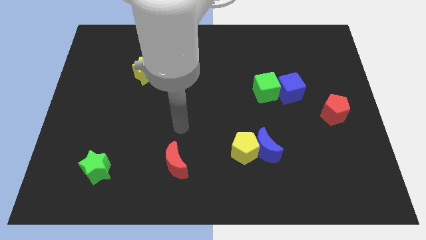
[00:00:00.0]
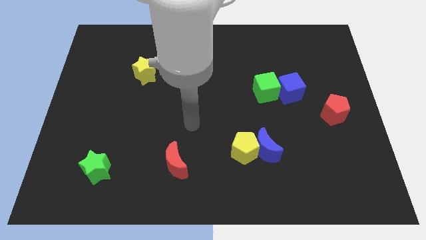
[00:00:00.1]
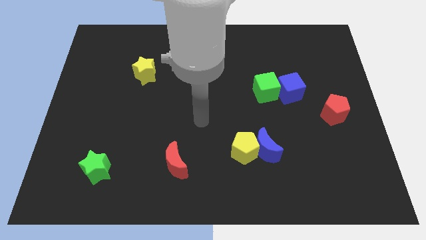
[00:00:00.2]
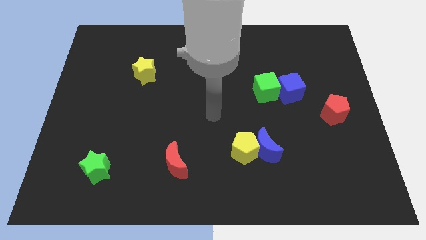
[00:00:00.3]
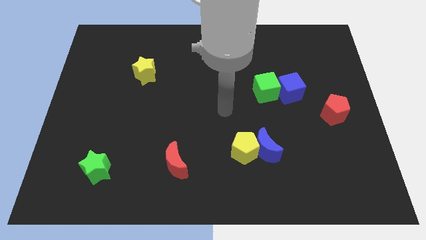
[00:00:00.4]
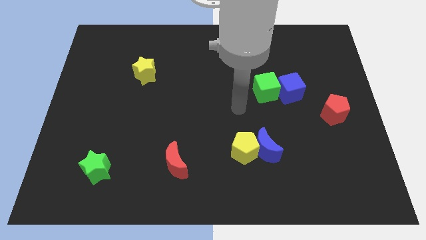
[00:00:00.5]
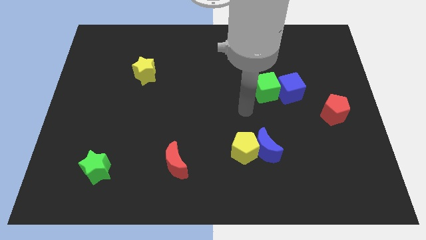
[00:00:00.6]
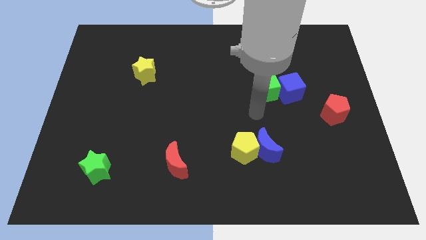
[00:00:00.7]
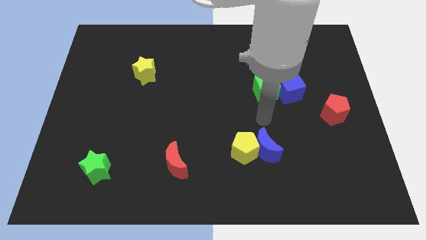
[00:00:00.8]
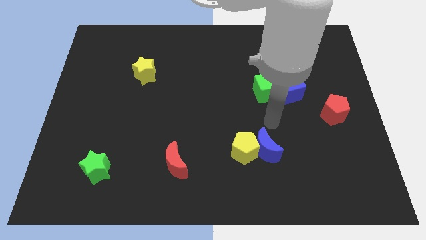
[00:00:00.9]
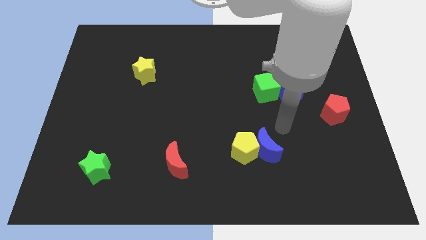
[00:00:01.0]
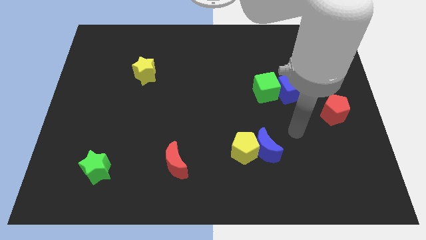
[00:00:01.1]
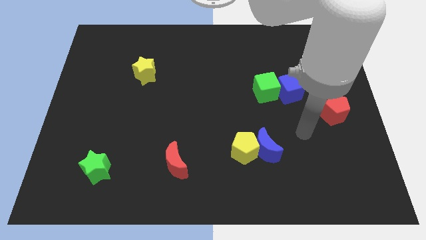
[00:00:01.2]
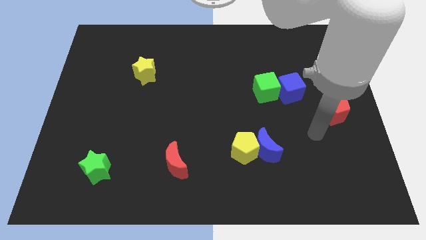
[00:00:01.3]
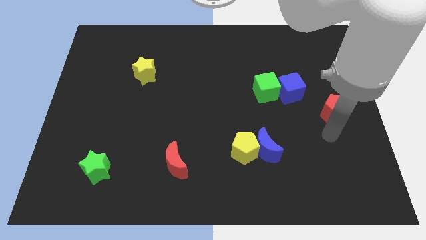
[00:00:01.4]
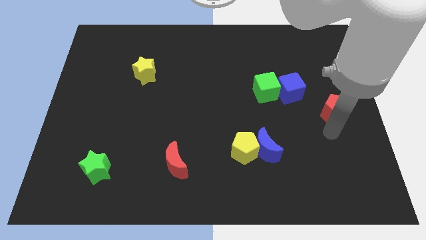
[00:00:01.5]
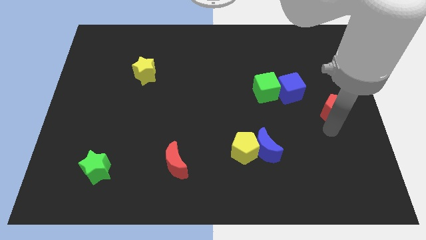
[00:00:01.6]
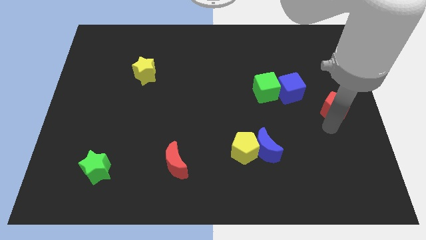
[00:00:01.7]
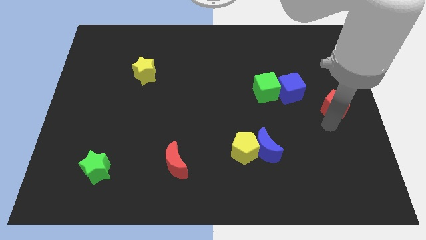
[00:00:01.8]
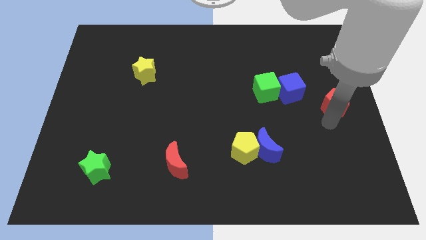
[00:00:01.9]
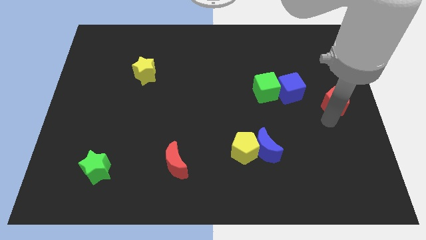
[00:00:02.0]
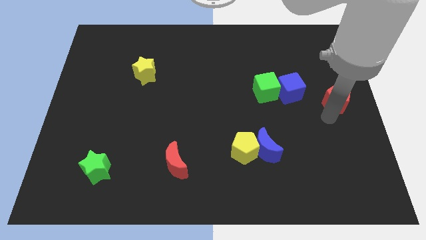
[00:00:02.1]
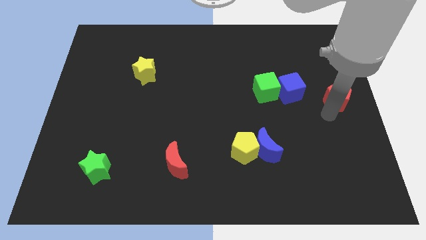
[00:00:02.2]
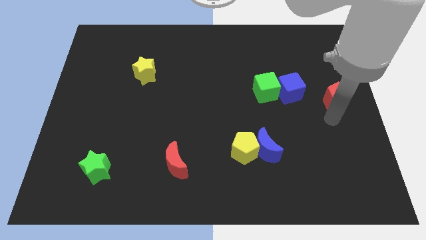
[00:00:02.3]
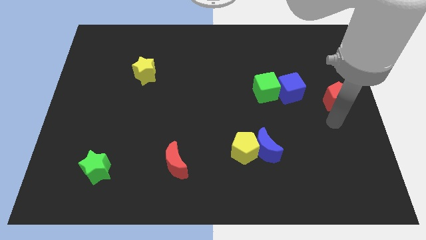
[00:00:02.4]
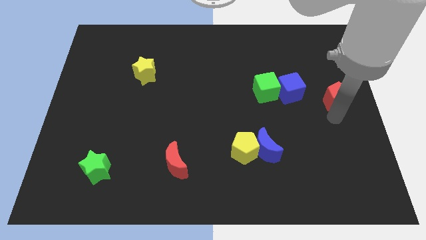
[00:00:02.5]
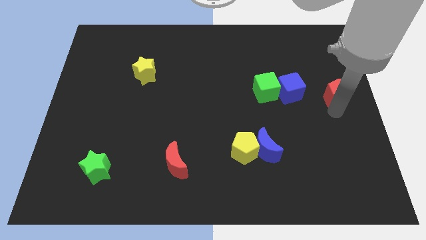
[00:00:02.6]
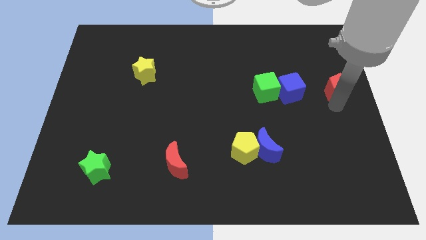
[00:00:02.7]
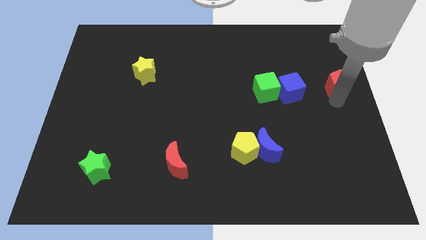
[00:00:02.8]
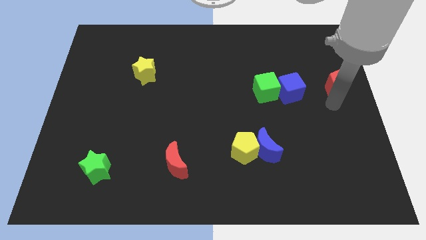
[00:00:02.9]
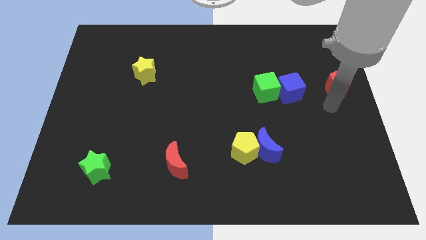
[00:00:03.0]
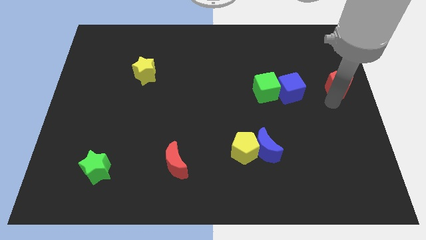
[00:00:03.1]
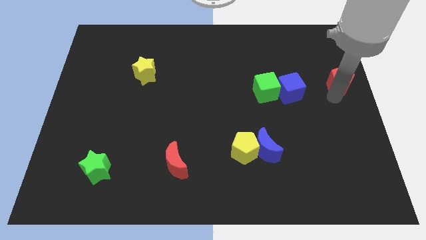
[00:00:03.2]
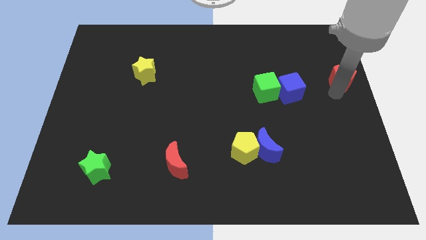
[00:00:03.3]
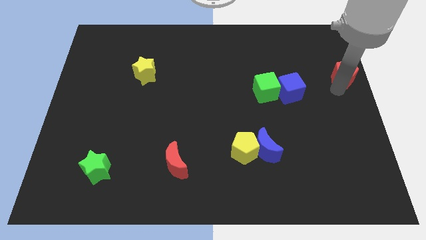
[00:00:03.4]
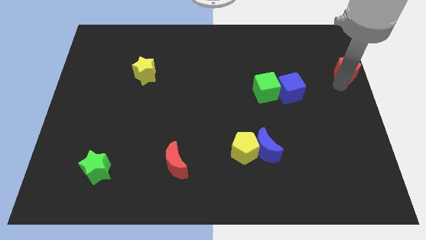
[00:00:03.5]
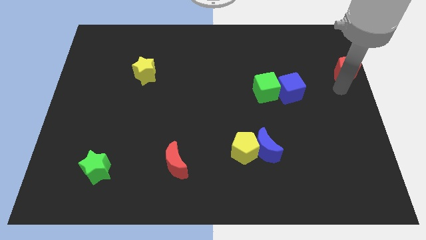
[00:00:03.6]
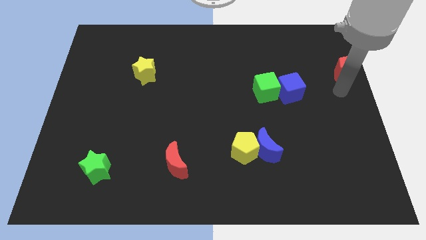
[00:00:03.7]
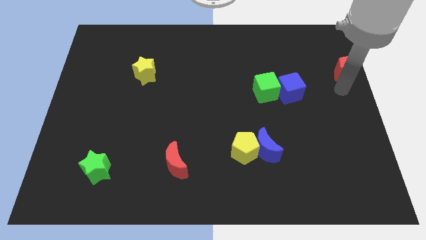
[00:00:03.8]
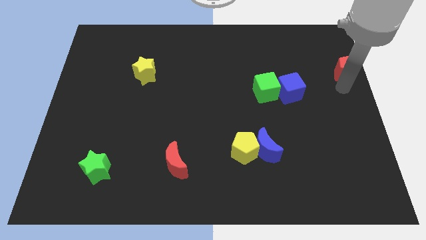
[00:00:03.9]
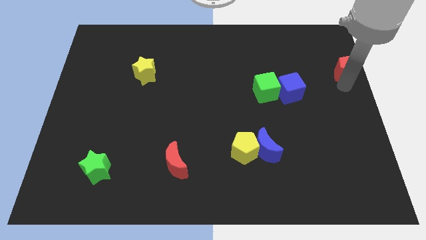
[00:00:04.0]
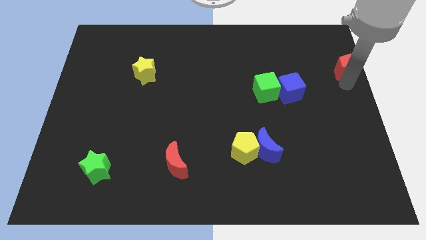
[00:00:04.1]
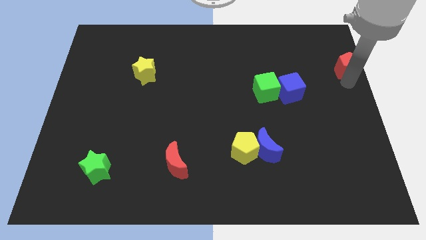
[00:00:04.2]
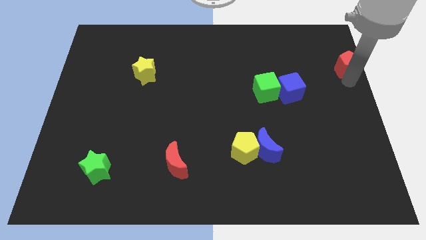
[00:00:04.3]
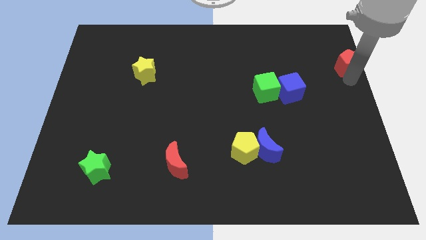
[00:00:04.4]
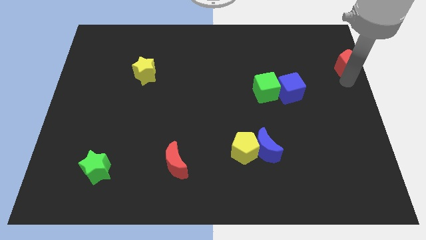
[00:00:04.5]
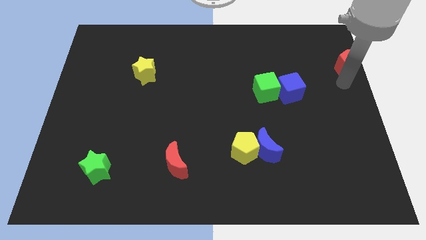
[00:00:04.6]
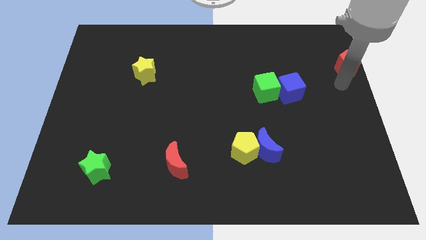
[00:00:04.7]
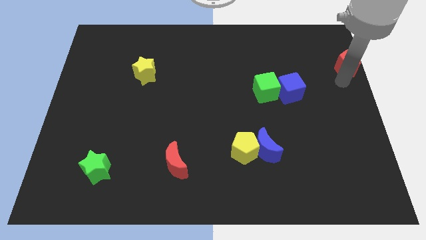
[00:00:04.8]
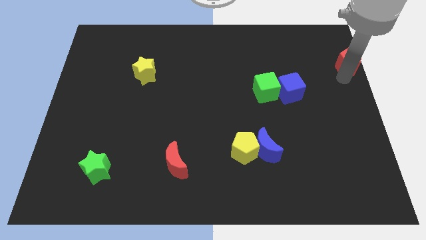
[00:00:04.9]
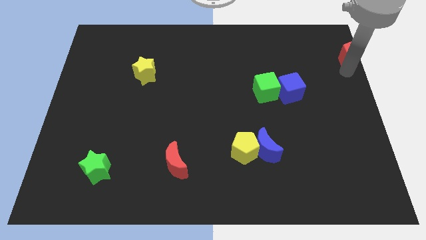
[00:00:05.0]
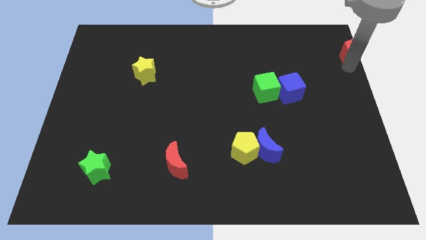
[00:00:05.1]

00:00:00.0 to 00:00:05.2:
slide the red pentagon to the top right of the board
